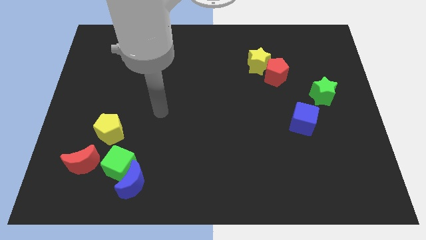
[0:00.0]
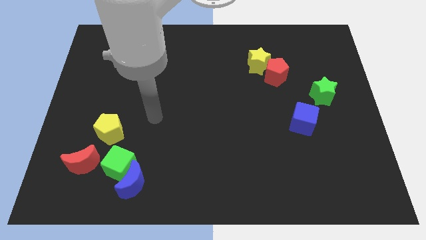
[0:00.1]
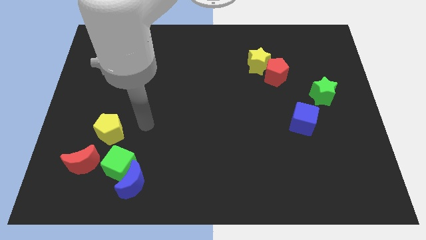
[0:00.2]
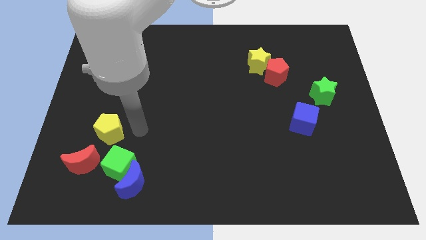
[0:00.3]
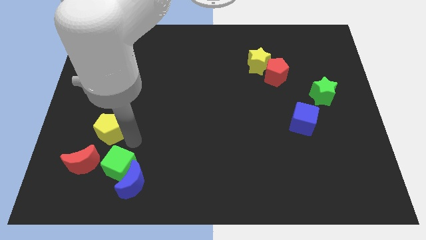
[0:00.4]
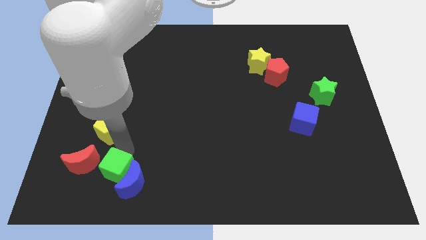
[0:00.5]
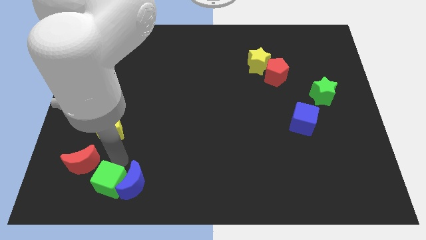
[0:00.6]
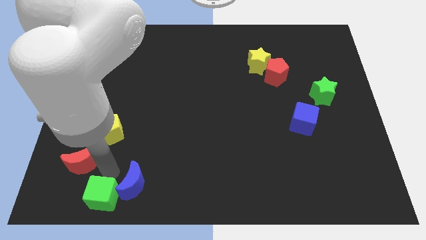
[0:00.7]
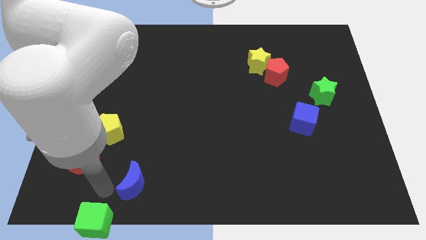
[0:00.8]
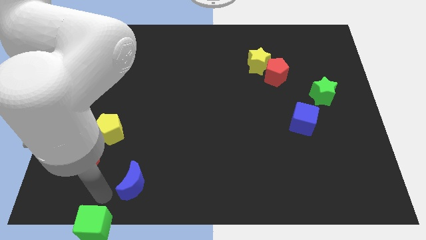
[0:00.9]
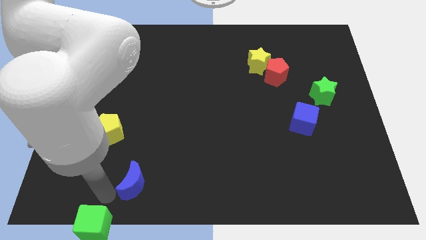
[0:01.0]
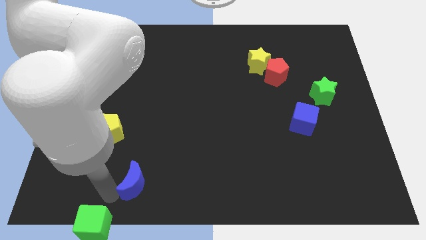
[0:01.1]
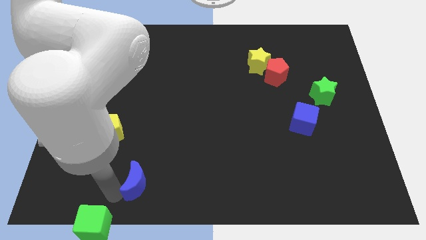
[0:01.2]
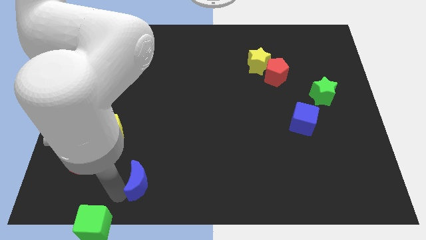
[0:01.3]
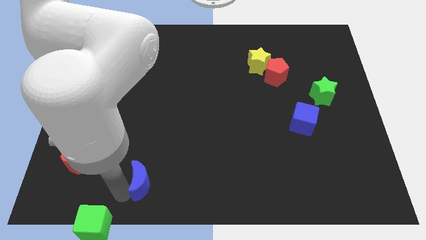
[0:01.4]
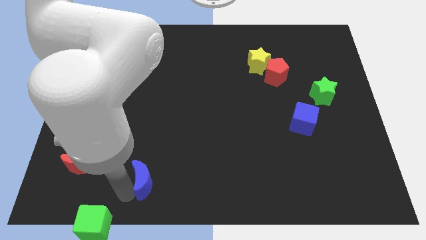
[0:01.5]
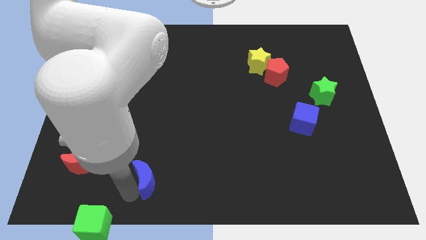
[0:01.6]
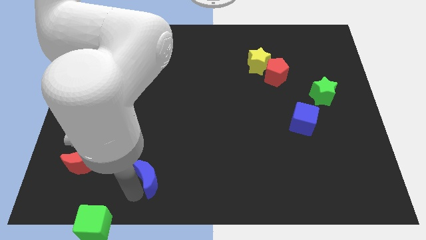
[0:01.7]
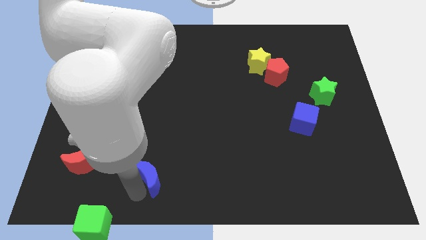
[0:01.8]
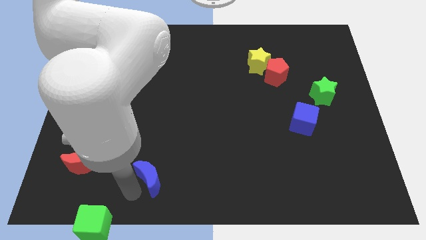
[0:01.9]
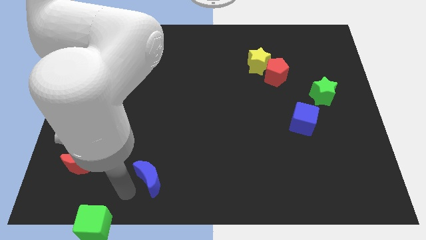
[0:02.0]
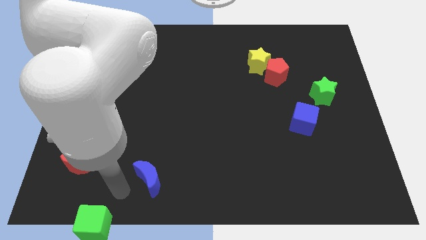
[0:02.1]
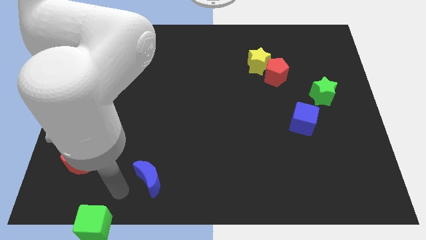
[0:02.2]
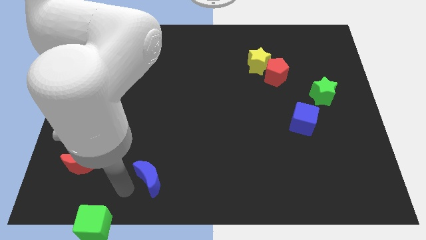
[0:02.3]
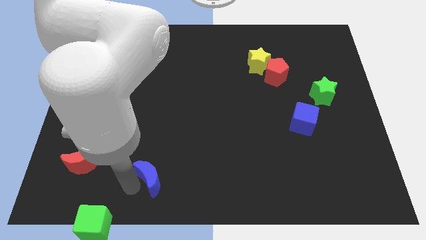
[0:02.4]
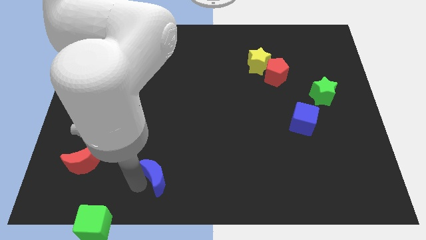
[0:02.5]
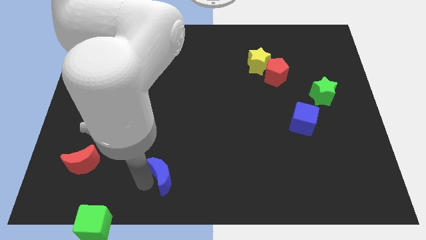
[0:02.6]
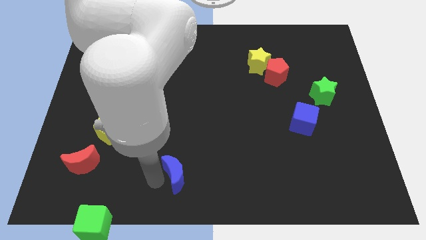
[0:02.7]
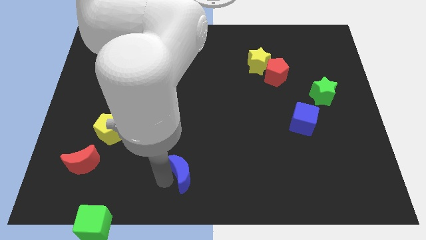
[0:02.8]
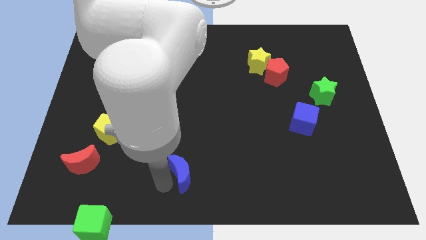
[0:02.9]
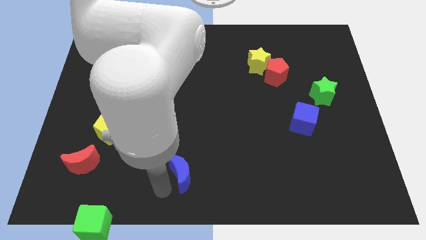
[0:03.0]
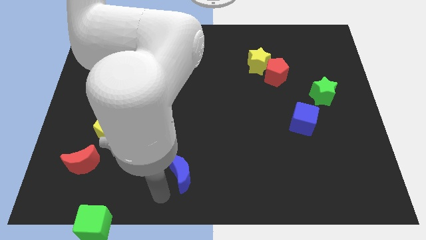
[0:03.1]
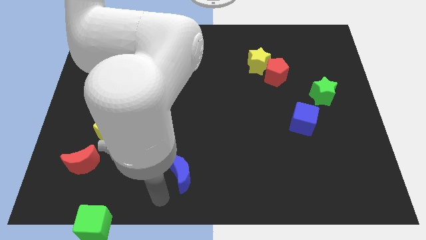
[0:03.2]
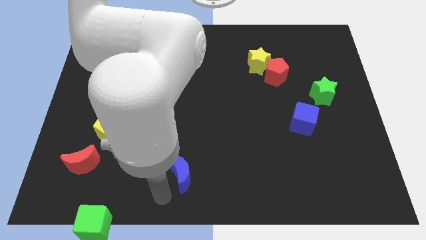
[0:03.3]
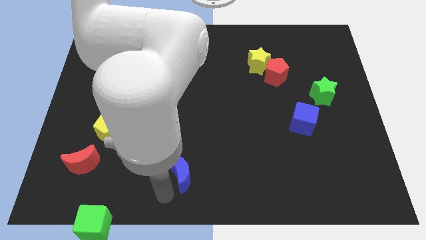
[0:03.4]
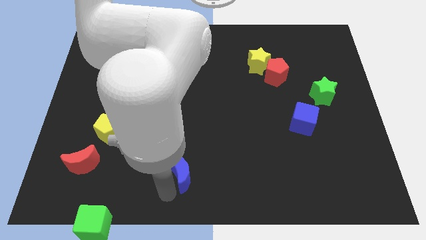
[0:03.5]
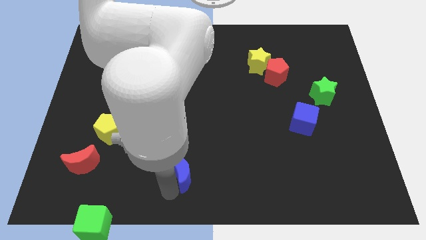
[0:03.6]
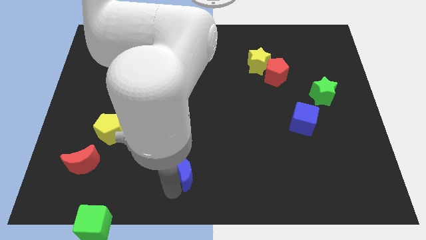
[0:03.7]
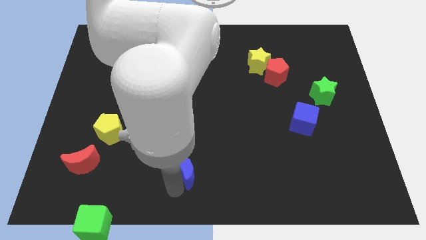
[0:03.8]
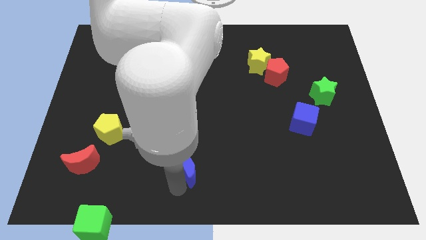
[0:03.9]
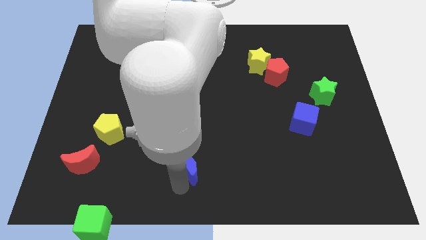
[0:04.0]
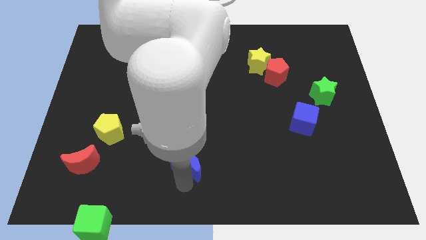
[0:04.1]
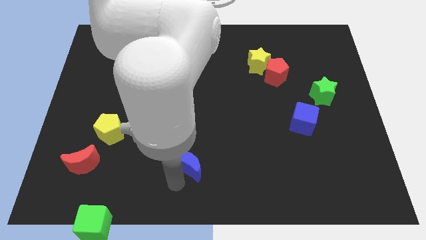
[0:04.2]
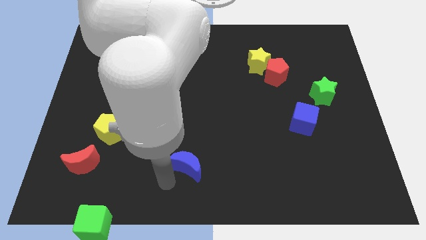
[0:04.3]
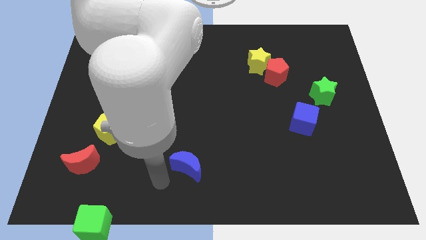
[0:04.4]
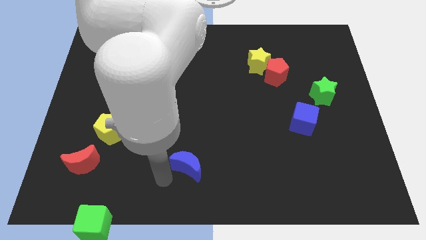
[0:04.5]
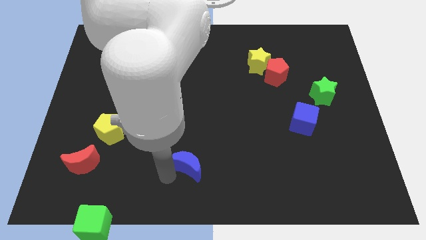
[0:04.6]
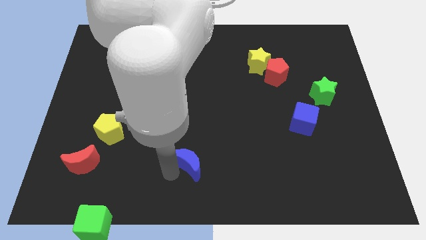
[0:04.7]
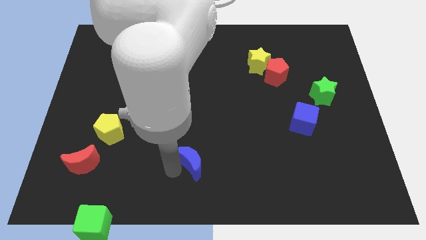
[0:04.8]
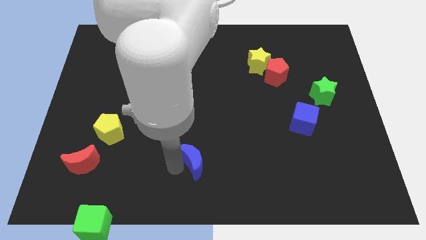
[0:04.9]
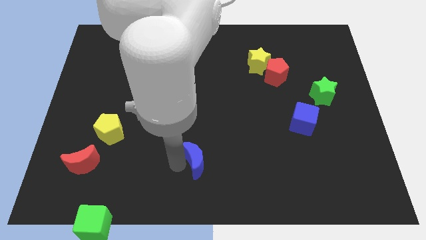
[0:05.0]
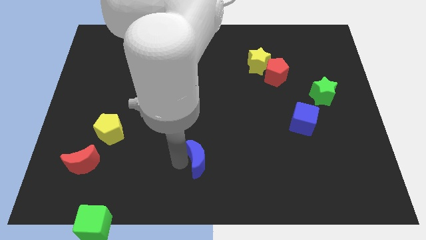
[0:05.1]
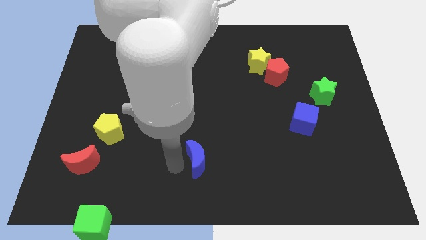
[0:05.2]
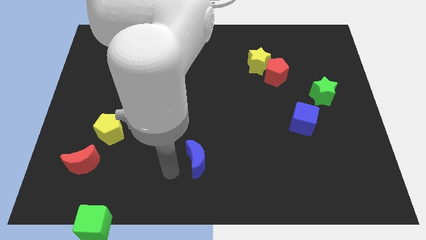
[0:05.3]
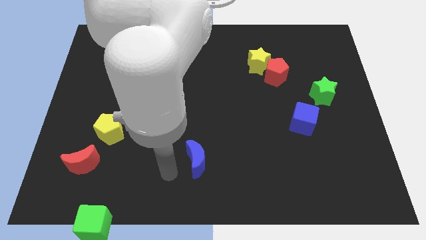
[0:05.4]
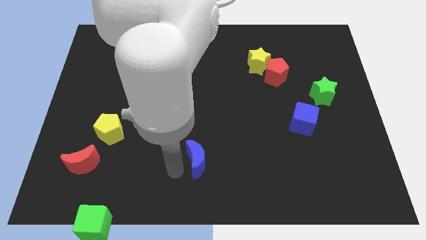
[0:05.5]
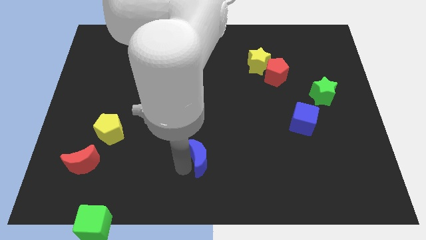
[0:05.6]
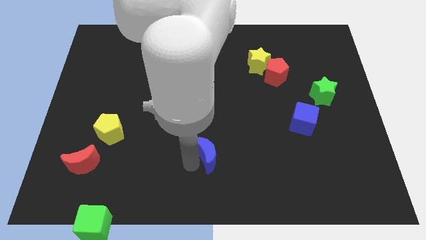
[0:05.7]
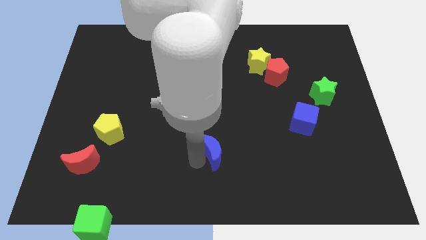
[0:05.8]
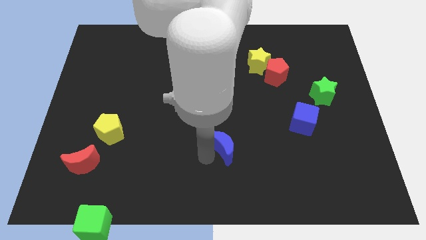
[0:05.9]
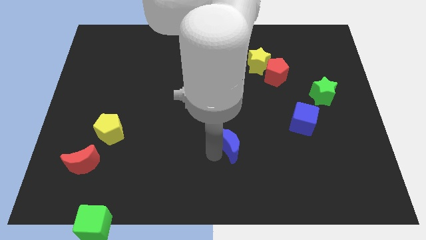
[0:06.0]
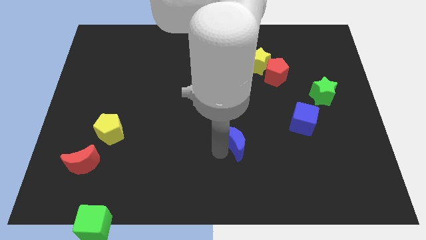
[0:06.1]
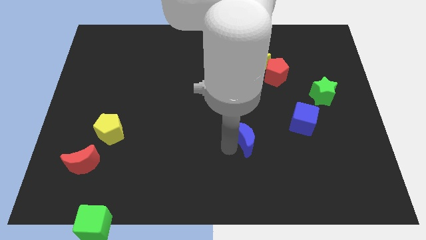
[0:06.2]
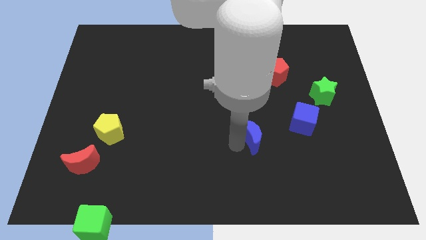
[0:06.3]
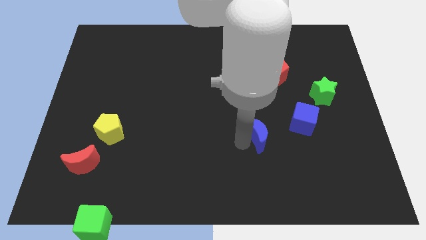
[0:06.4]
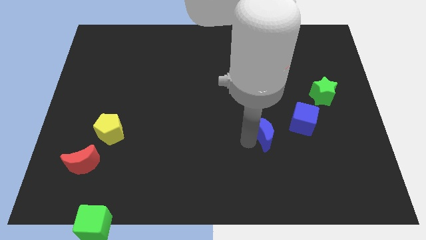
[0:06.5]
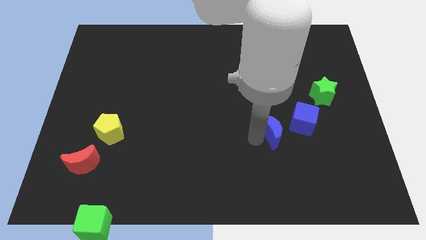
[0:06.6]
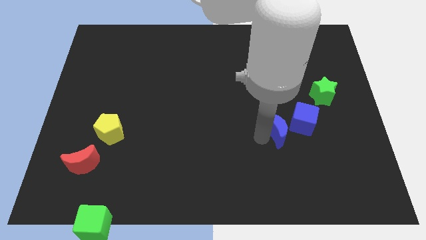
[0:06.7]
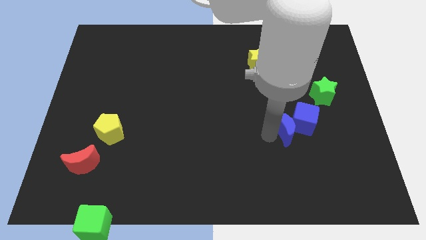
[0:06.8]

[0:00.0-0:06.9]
move the blue moon close to the blue cube

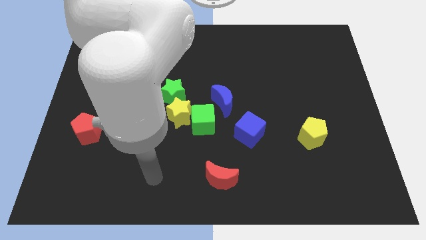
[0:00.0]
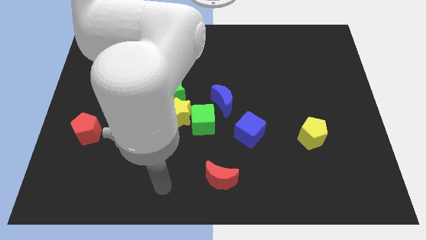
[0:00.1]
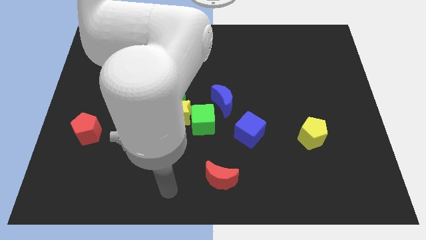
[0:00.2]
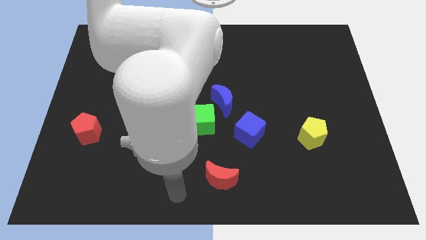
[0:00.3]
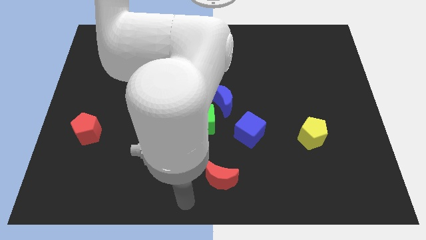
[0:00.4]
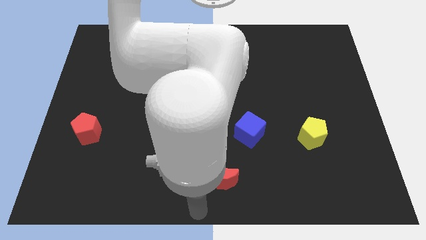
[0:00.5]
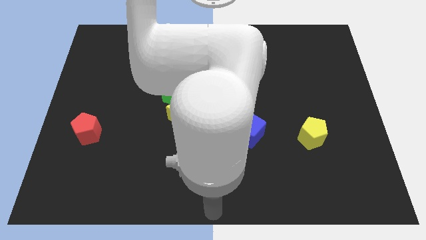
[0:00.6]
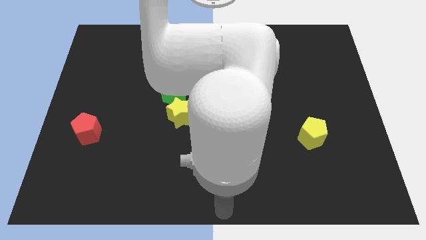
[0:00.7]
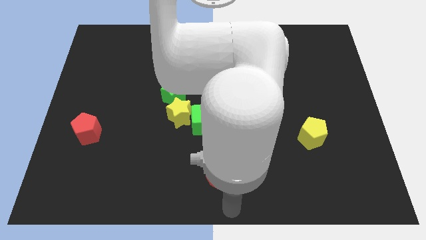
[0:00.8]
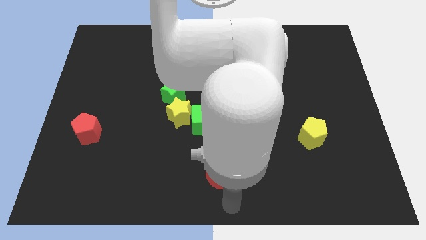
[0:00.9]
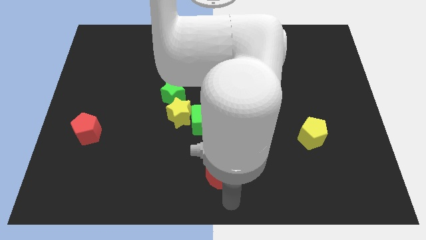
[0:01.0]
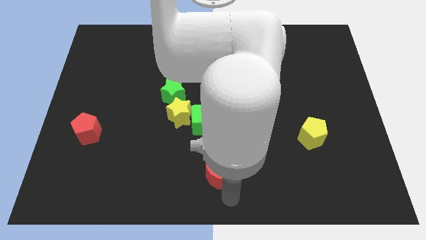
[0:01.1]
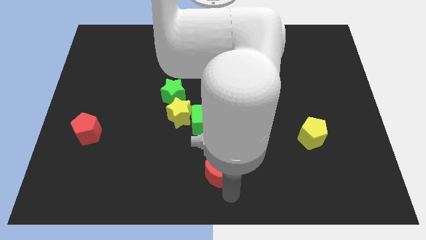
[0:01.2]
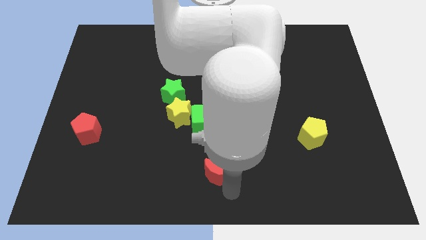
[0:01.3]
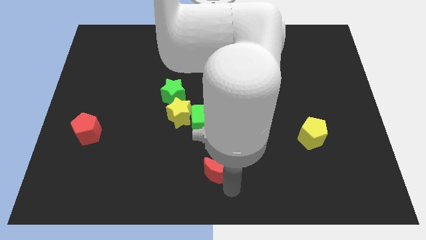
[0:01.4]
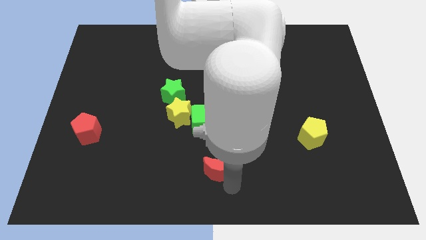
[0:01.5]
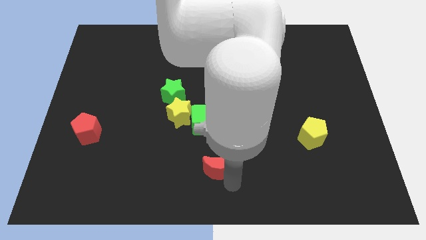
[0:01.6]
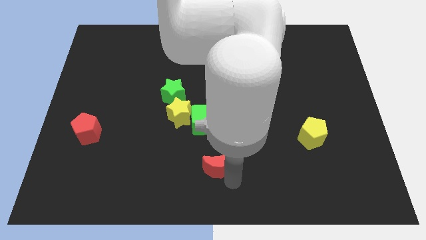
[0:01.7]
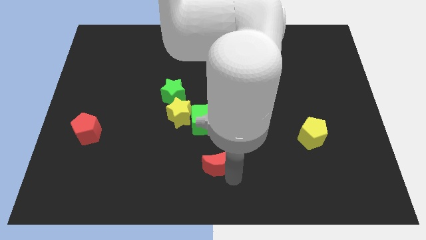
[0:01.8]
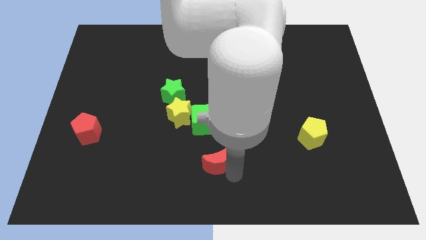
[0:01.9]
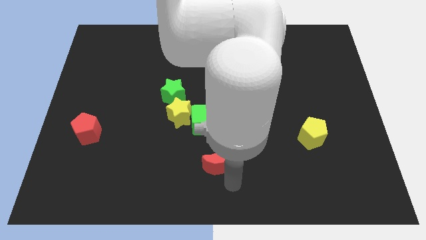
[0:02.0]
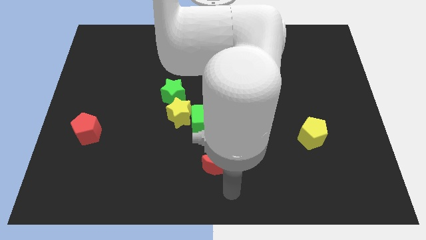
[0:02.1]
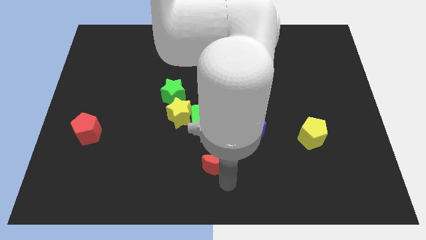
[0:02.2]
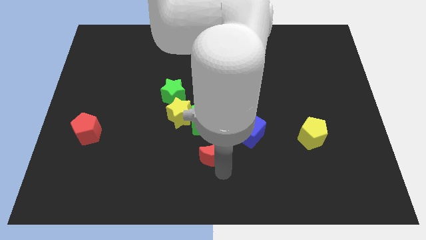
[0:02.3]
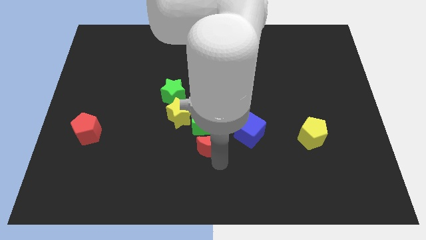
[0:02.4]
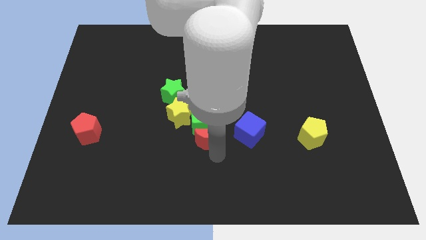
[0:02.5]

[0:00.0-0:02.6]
move the red moon to the green cube
